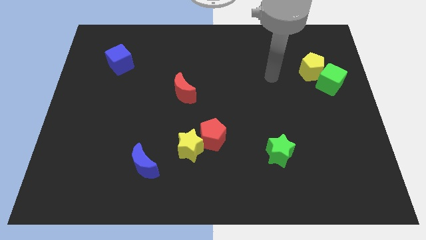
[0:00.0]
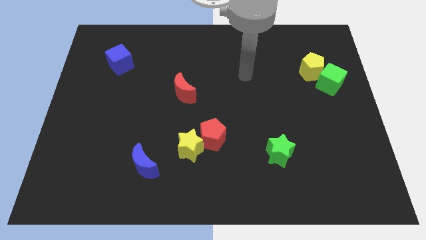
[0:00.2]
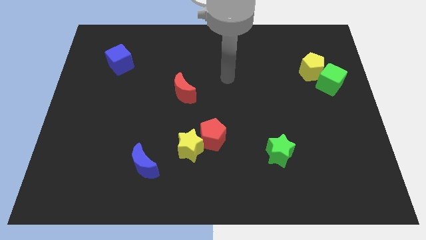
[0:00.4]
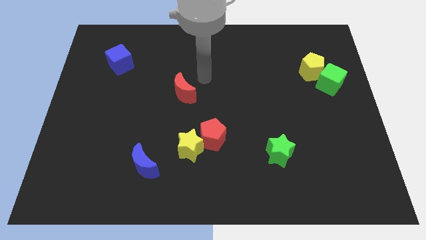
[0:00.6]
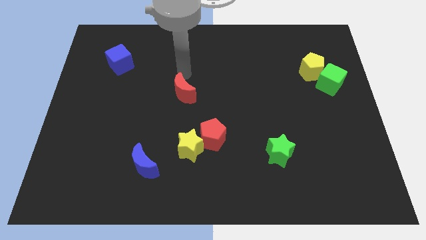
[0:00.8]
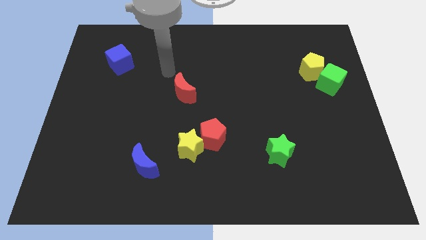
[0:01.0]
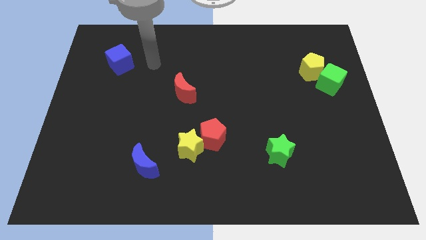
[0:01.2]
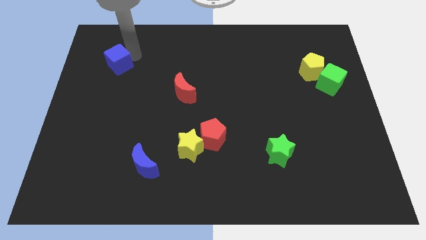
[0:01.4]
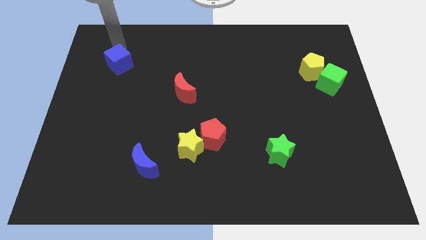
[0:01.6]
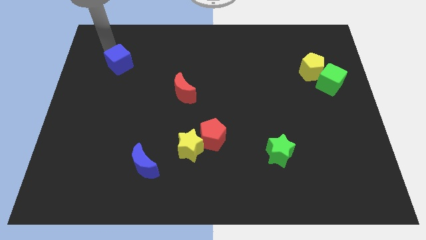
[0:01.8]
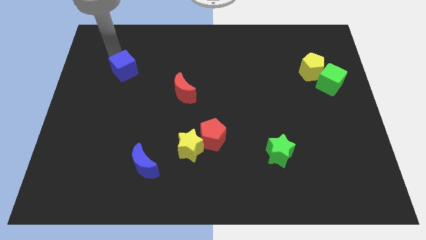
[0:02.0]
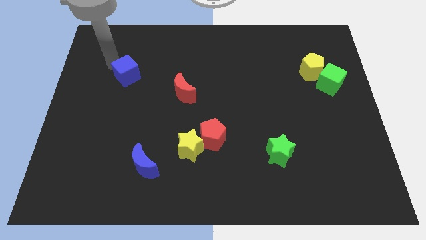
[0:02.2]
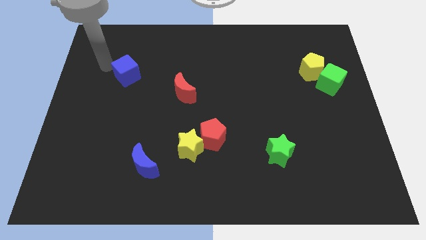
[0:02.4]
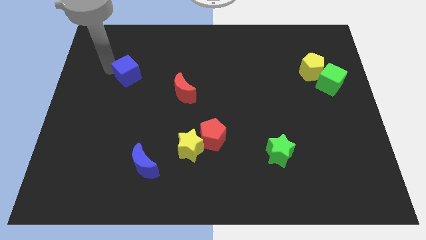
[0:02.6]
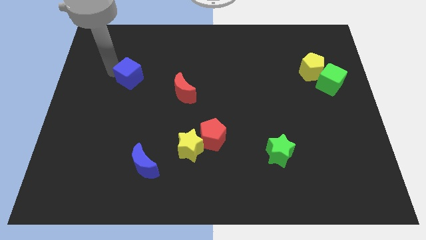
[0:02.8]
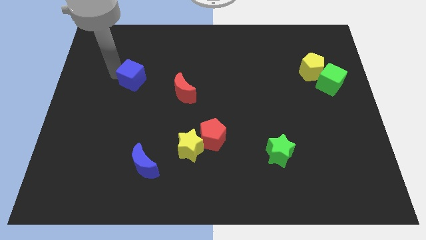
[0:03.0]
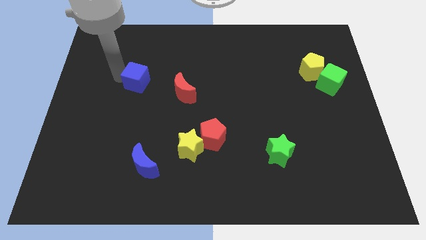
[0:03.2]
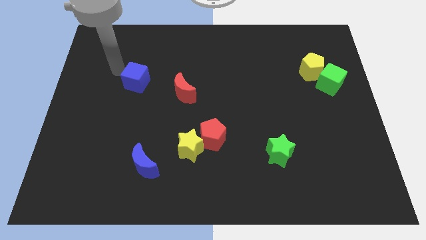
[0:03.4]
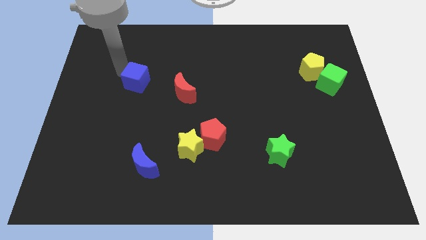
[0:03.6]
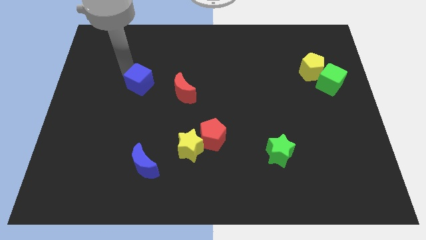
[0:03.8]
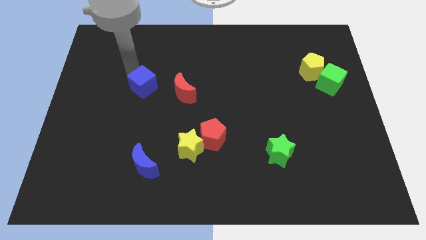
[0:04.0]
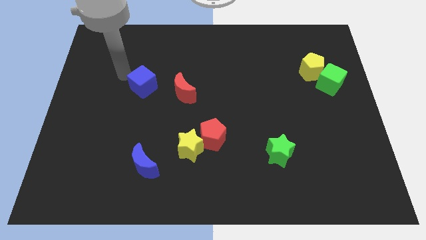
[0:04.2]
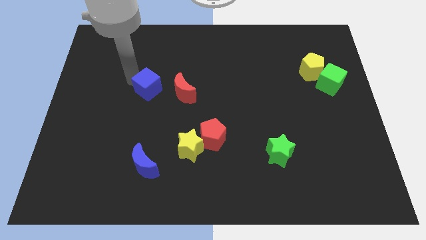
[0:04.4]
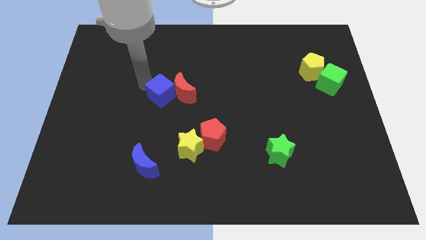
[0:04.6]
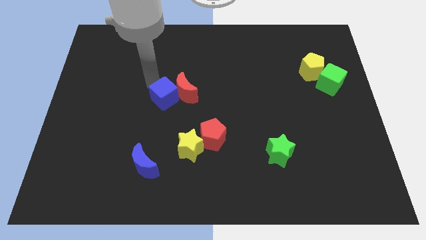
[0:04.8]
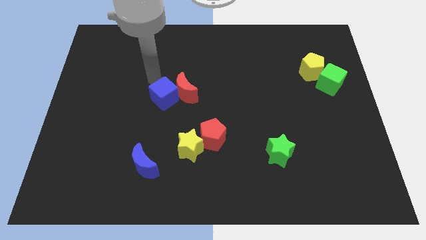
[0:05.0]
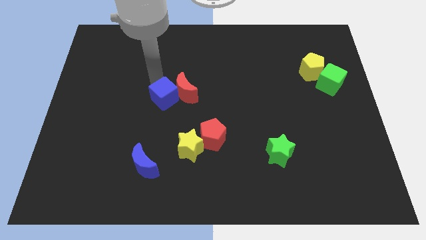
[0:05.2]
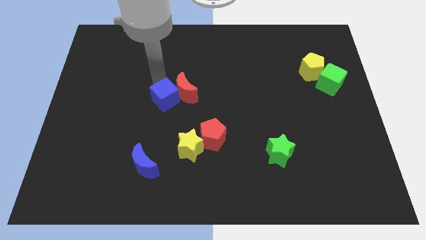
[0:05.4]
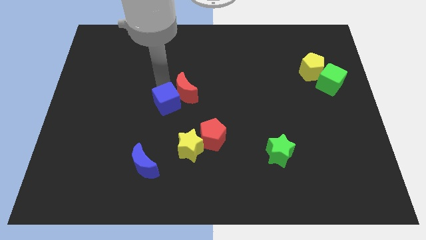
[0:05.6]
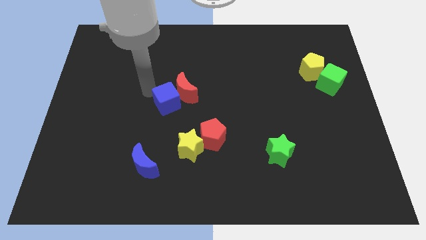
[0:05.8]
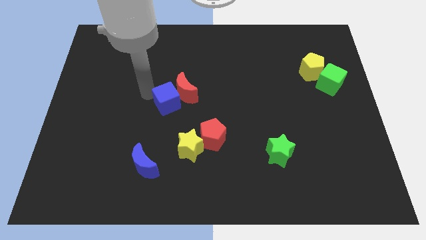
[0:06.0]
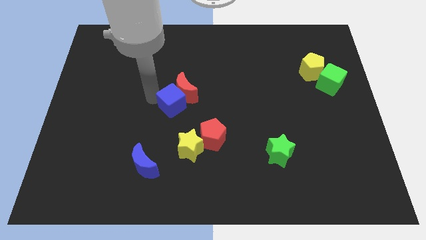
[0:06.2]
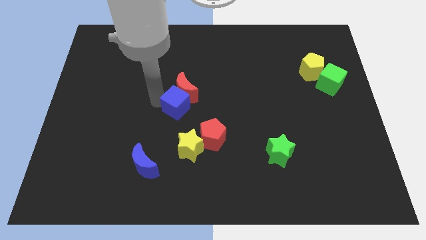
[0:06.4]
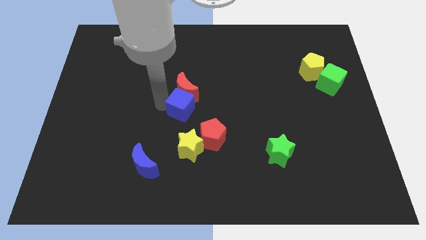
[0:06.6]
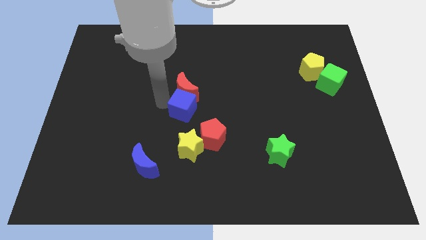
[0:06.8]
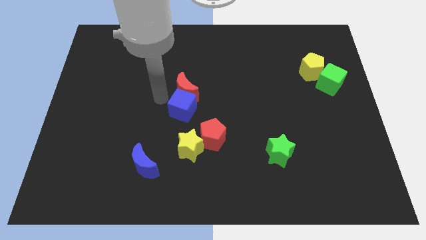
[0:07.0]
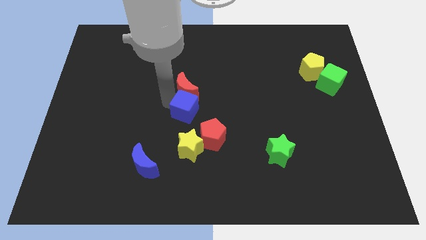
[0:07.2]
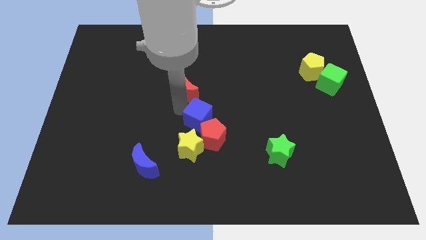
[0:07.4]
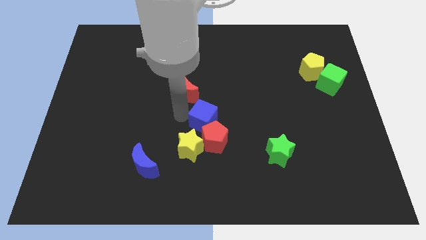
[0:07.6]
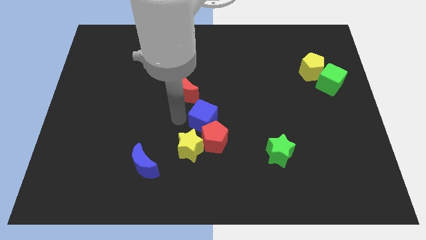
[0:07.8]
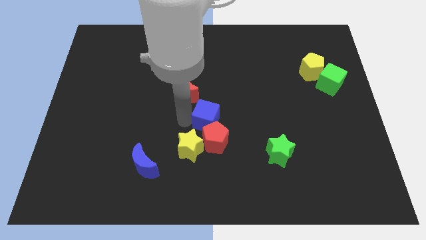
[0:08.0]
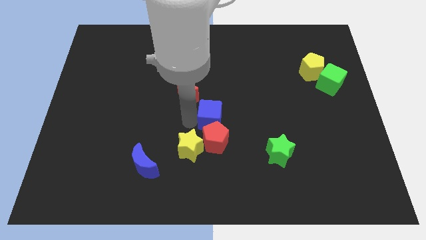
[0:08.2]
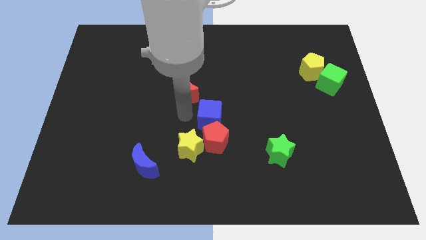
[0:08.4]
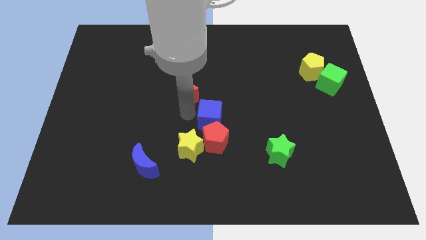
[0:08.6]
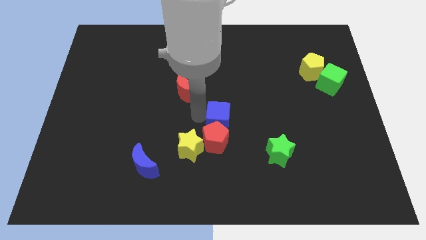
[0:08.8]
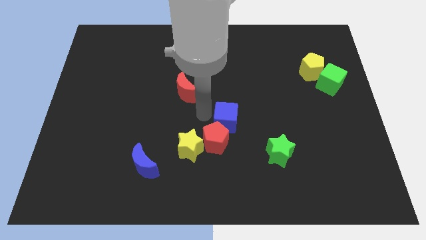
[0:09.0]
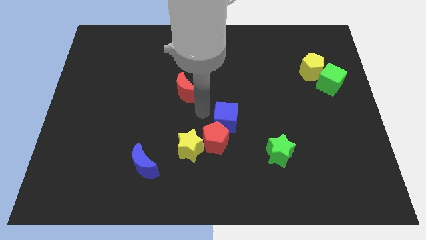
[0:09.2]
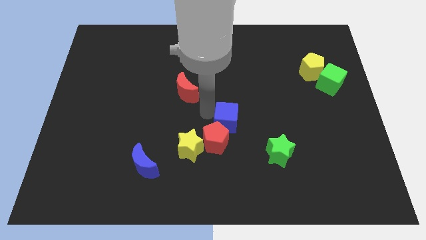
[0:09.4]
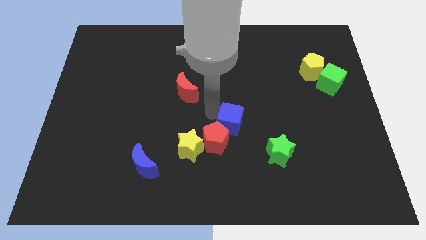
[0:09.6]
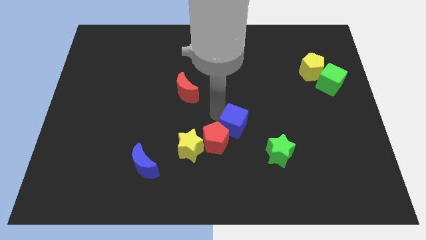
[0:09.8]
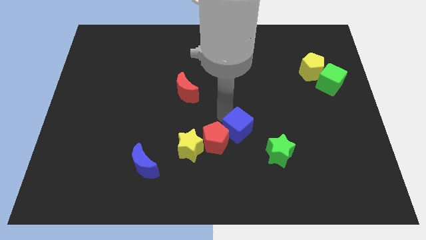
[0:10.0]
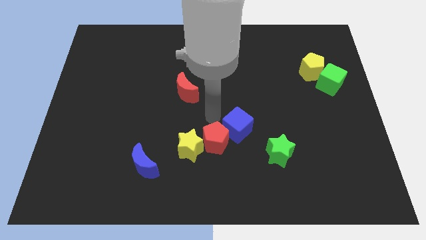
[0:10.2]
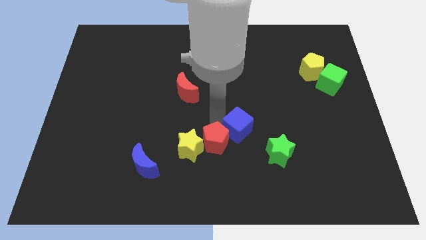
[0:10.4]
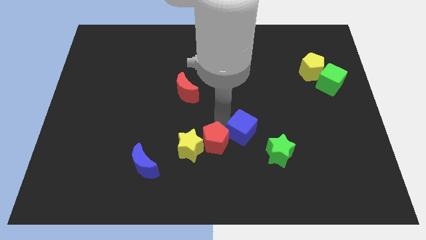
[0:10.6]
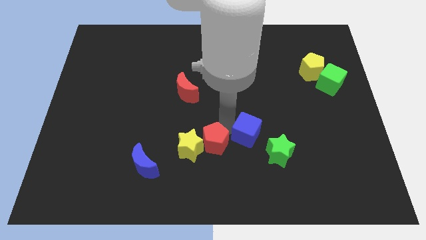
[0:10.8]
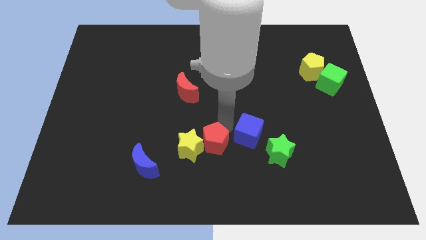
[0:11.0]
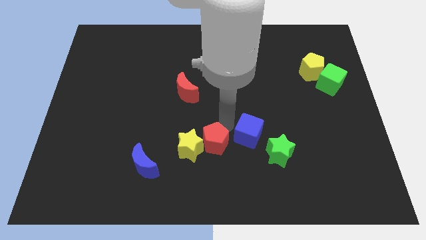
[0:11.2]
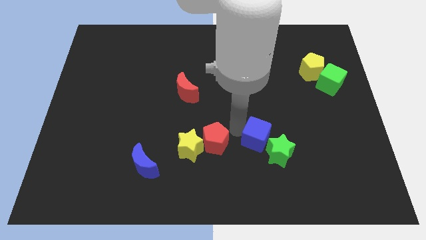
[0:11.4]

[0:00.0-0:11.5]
put the blue cube next to the green star

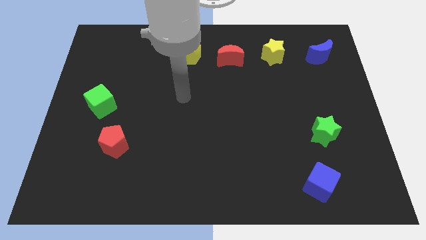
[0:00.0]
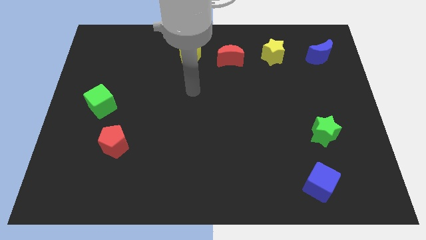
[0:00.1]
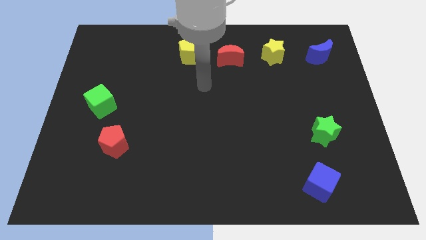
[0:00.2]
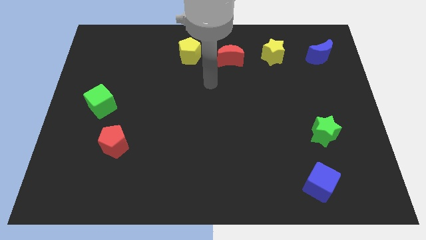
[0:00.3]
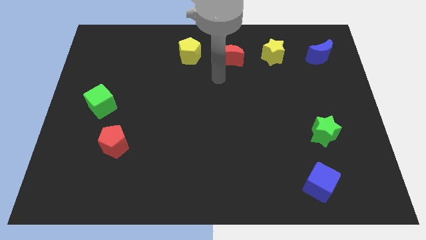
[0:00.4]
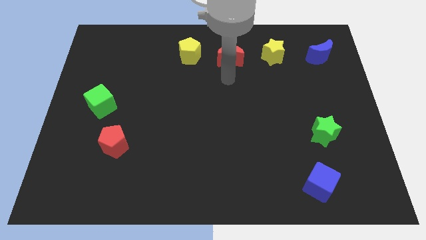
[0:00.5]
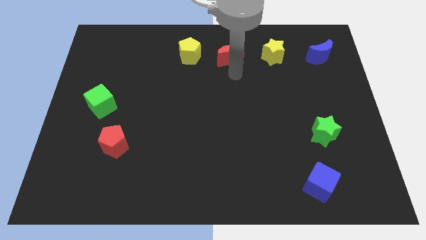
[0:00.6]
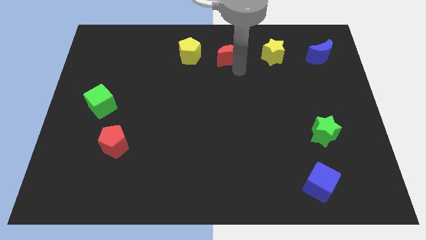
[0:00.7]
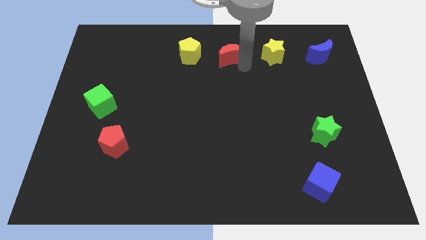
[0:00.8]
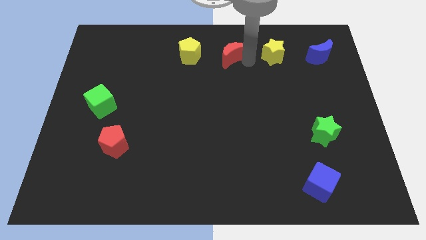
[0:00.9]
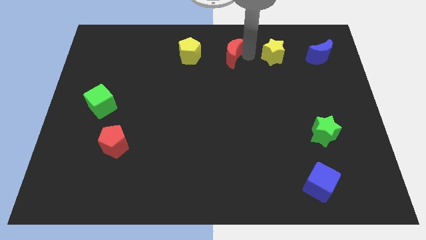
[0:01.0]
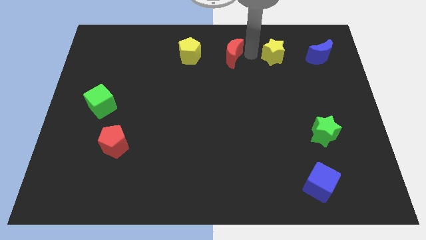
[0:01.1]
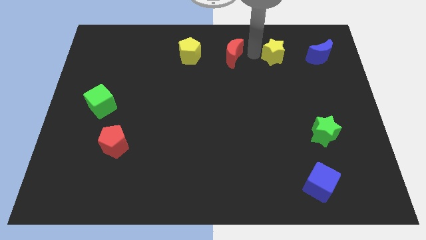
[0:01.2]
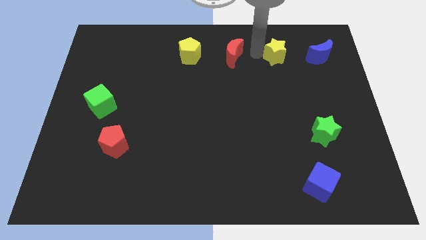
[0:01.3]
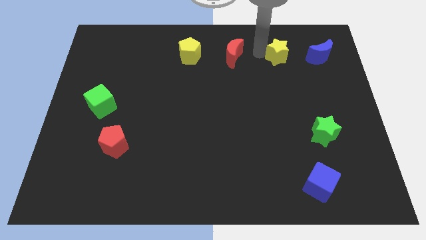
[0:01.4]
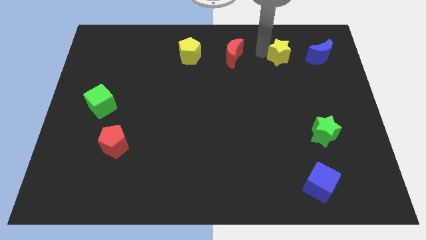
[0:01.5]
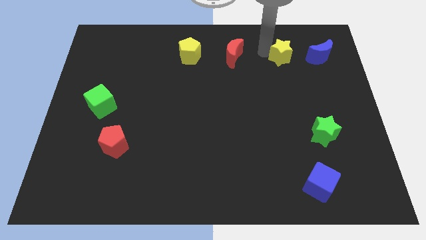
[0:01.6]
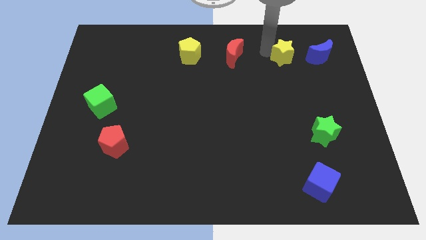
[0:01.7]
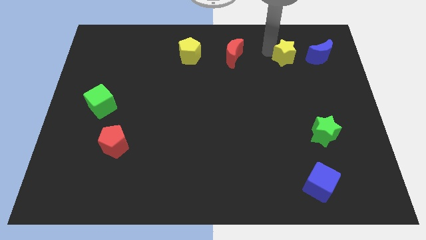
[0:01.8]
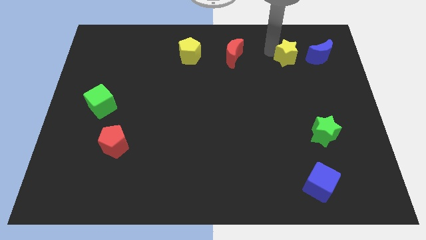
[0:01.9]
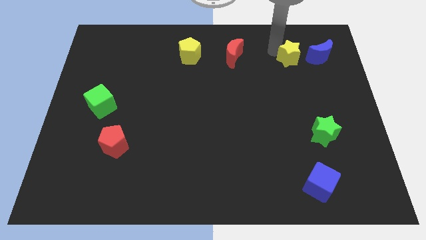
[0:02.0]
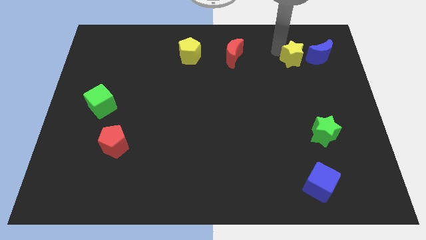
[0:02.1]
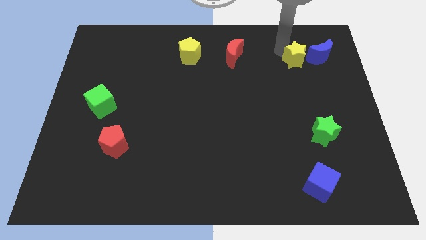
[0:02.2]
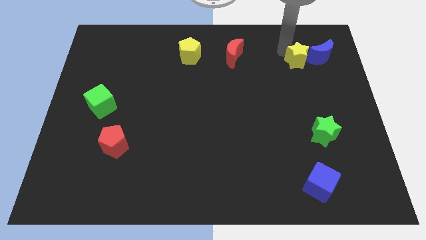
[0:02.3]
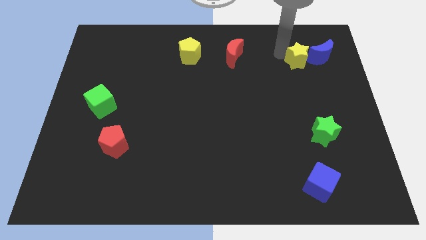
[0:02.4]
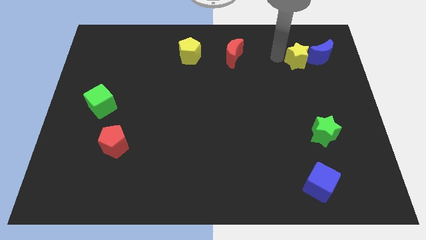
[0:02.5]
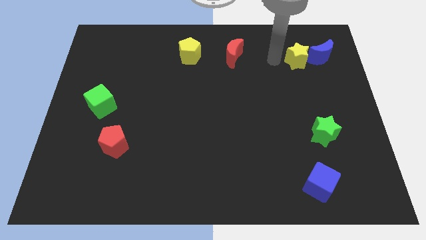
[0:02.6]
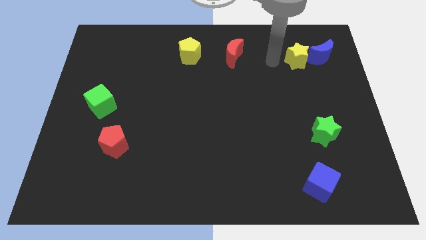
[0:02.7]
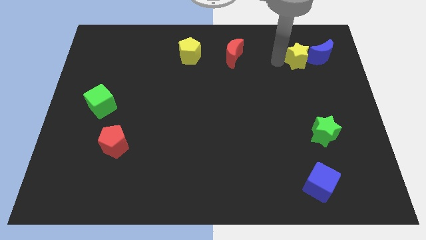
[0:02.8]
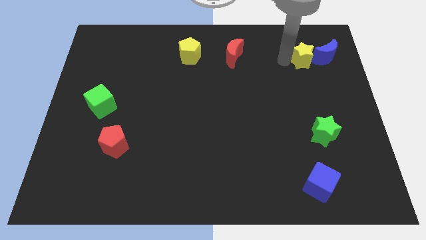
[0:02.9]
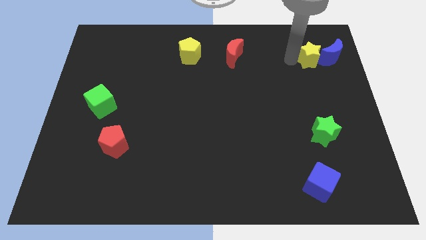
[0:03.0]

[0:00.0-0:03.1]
slide the yellow star towards the blue moon
